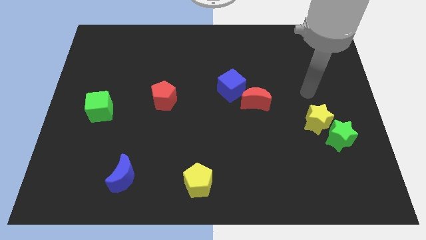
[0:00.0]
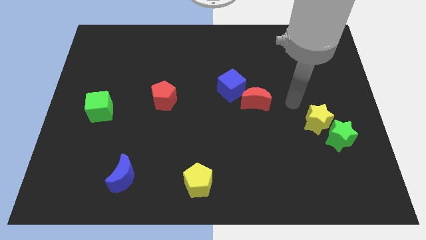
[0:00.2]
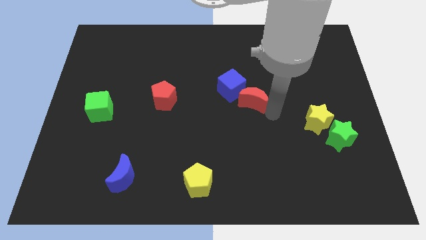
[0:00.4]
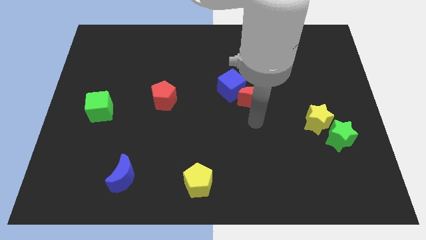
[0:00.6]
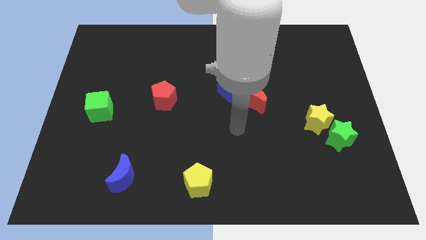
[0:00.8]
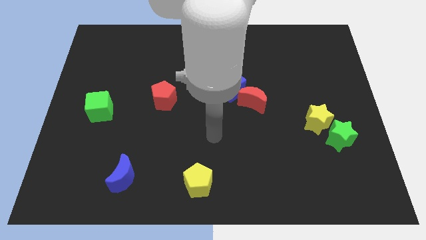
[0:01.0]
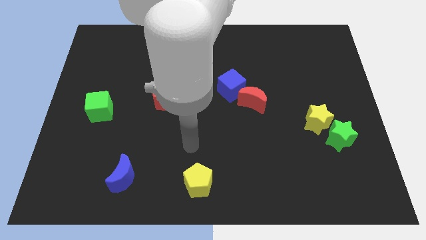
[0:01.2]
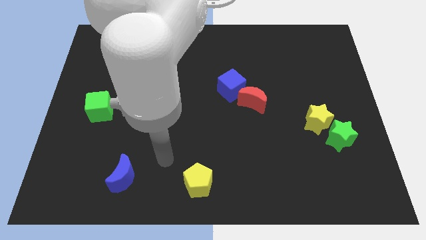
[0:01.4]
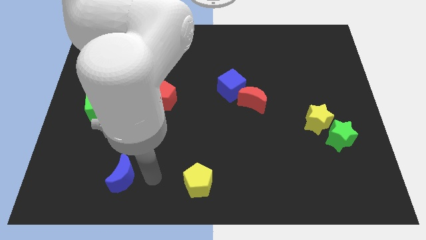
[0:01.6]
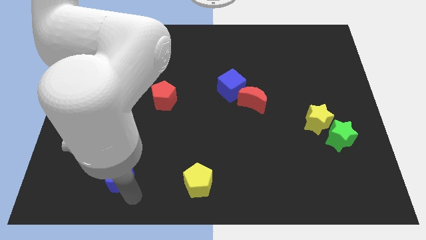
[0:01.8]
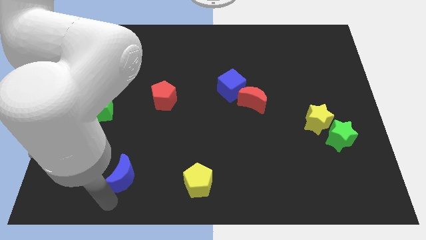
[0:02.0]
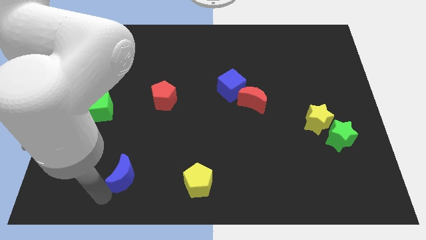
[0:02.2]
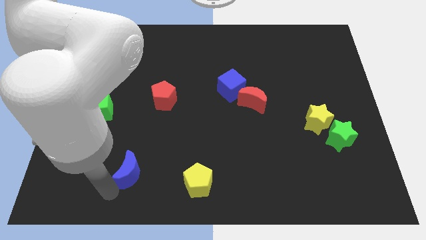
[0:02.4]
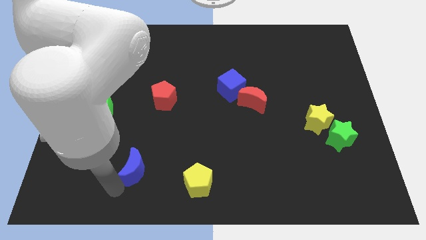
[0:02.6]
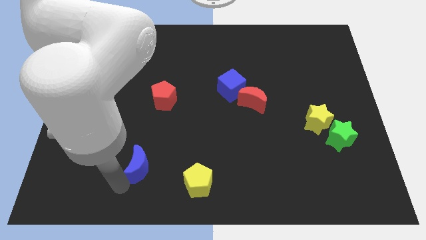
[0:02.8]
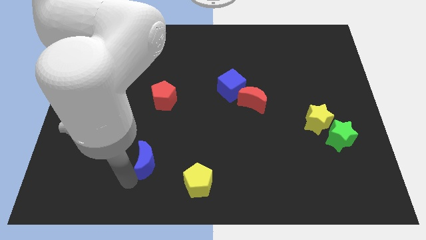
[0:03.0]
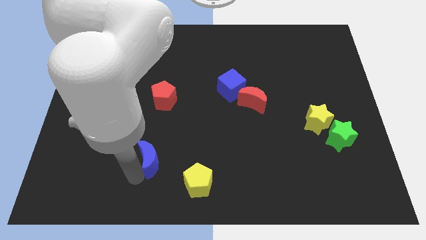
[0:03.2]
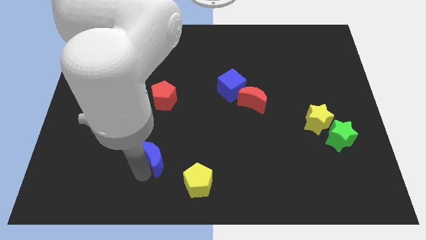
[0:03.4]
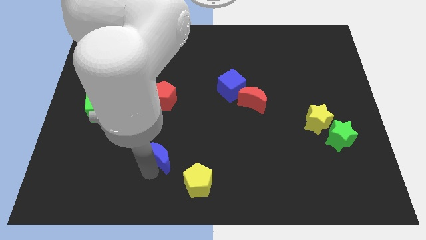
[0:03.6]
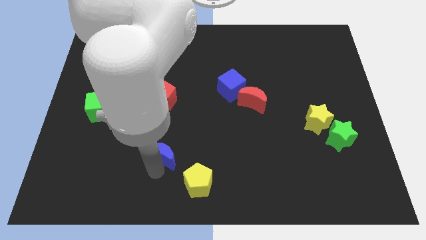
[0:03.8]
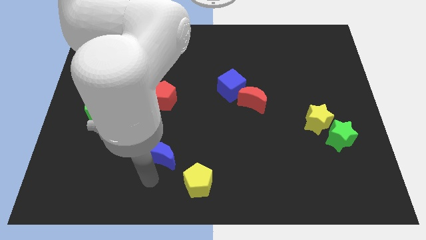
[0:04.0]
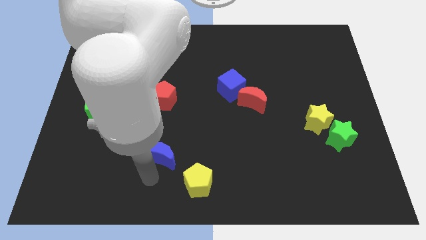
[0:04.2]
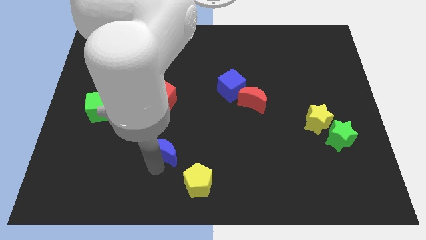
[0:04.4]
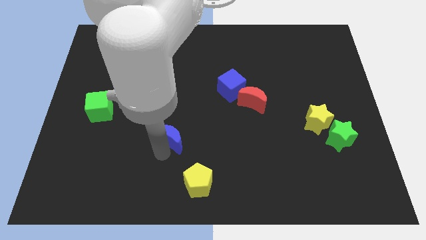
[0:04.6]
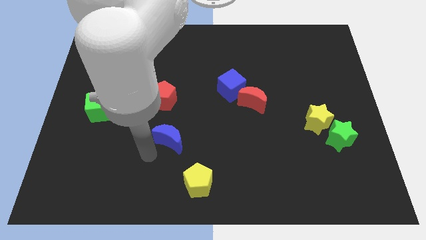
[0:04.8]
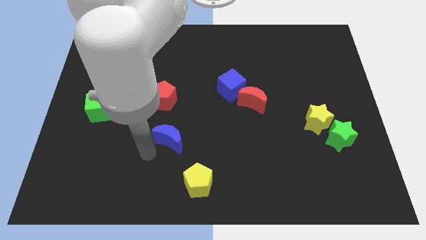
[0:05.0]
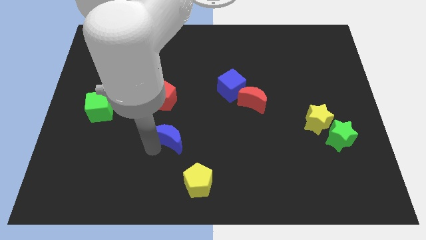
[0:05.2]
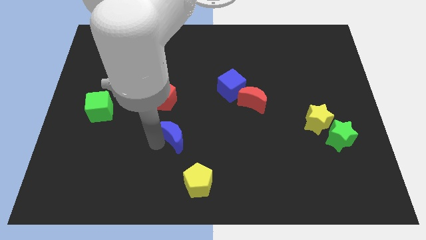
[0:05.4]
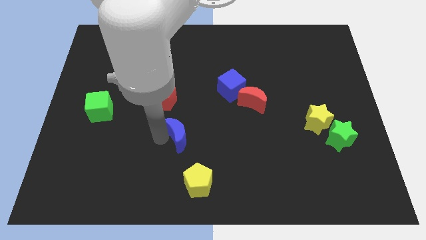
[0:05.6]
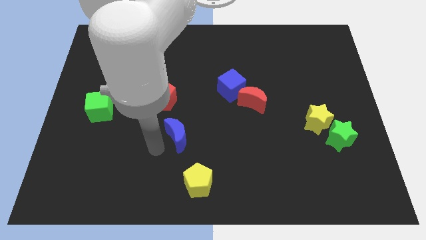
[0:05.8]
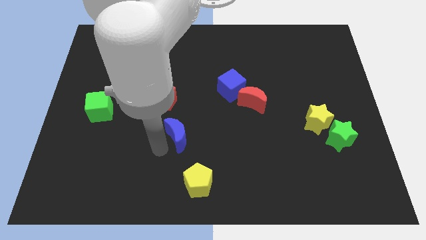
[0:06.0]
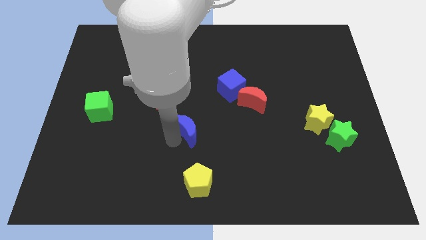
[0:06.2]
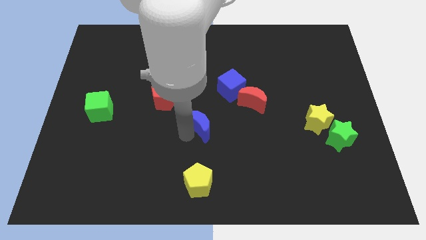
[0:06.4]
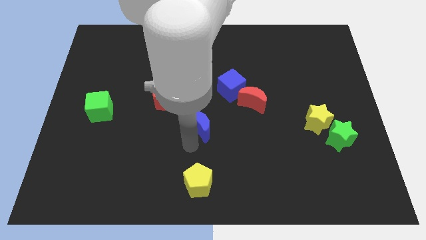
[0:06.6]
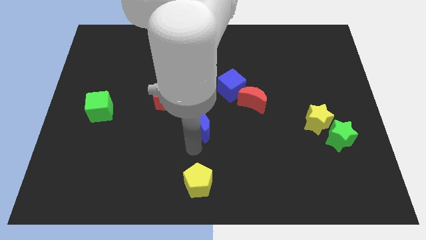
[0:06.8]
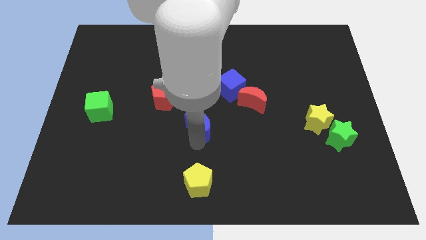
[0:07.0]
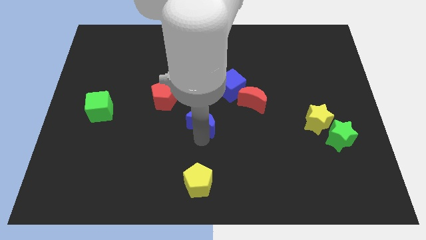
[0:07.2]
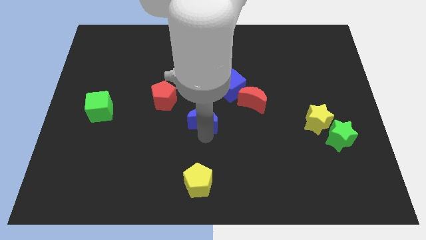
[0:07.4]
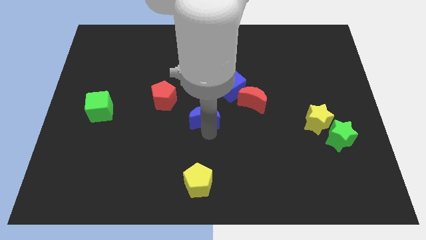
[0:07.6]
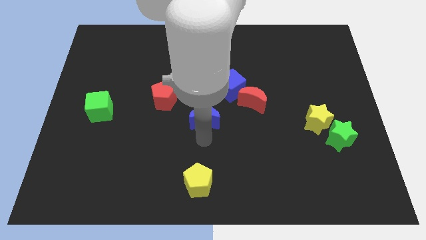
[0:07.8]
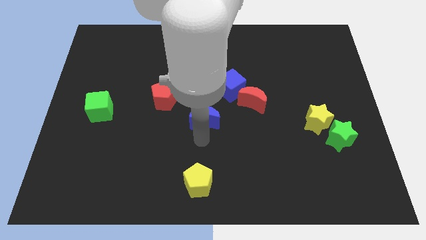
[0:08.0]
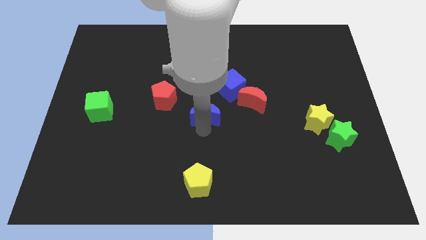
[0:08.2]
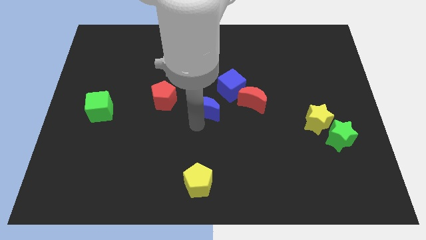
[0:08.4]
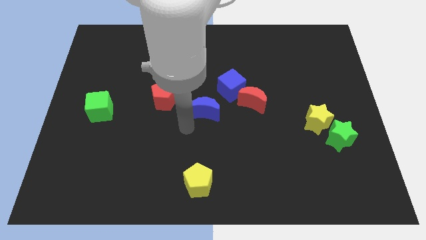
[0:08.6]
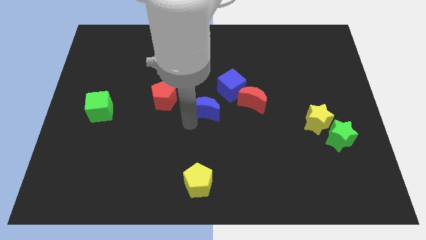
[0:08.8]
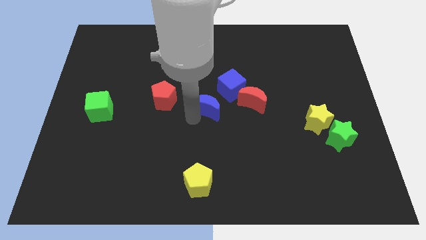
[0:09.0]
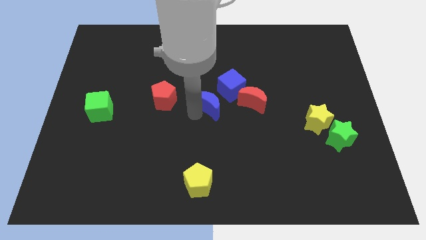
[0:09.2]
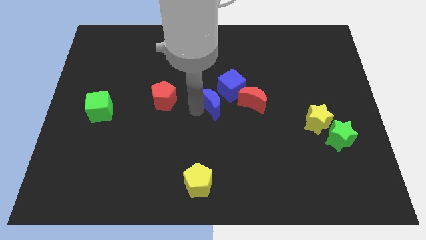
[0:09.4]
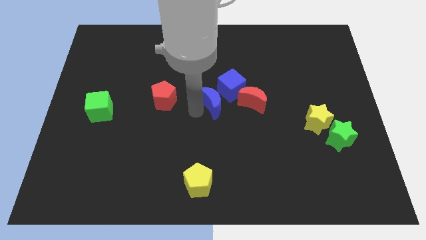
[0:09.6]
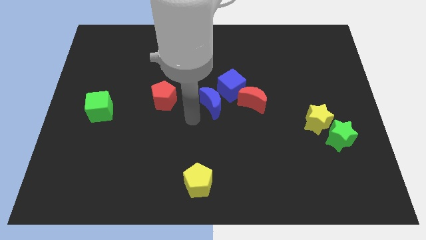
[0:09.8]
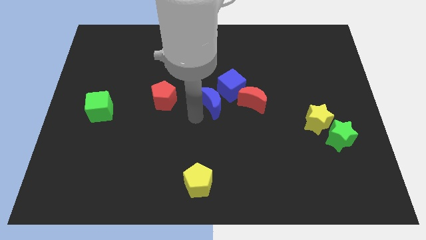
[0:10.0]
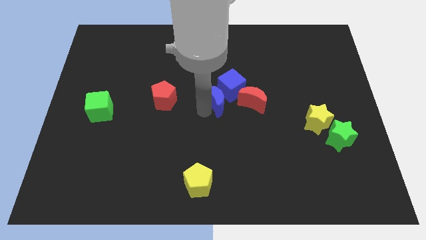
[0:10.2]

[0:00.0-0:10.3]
put the blue moon close to the blue cube

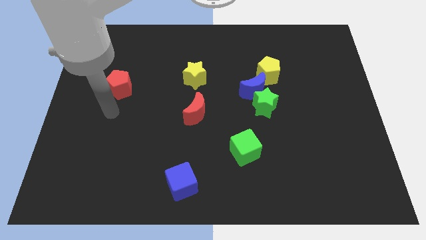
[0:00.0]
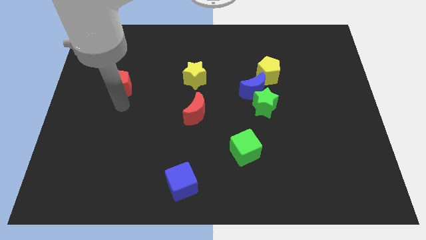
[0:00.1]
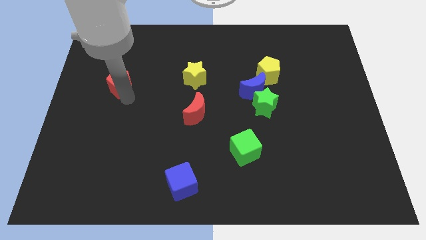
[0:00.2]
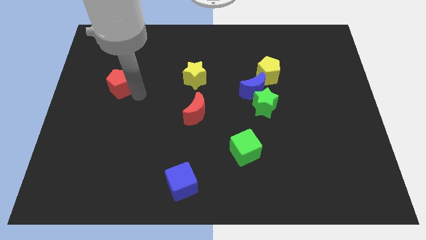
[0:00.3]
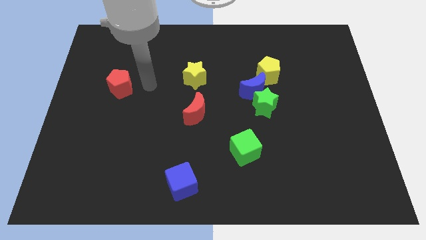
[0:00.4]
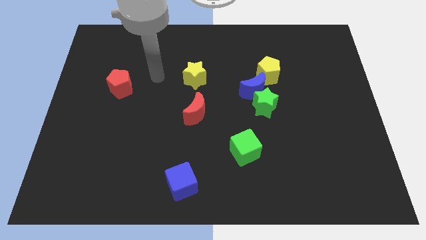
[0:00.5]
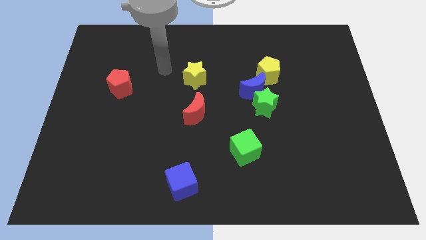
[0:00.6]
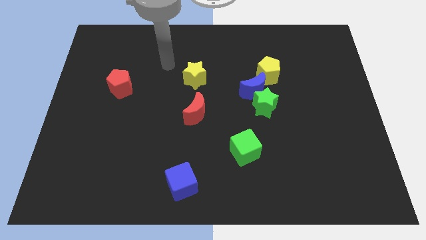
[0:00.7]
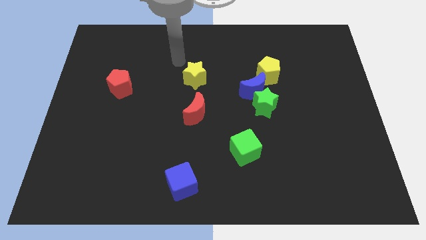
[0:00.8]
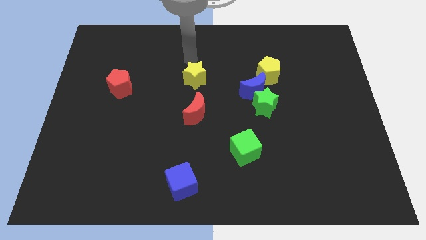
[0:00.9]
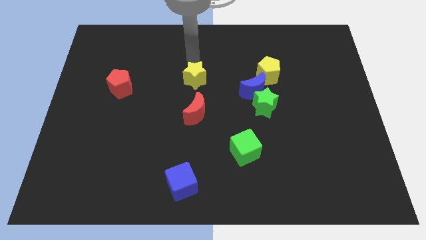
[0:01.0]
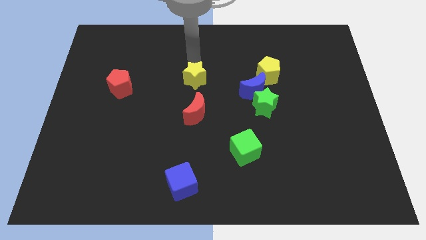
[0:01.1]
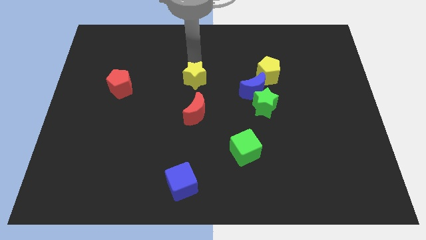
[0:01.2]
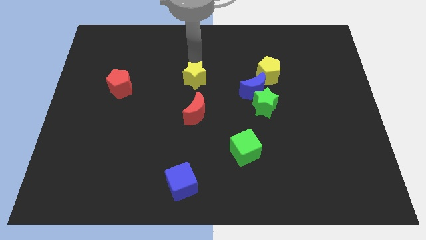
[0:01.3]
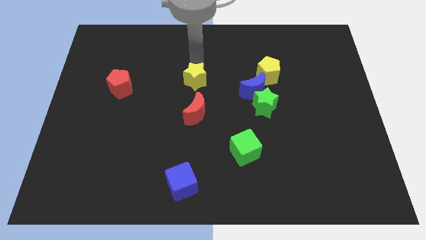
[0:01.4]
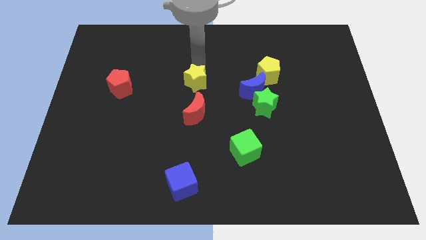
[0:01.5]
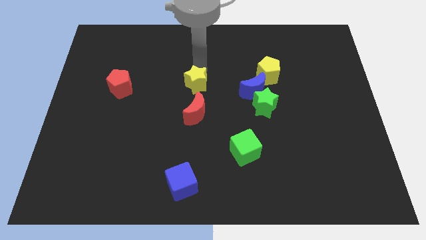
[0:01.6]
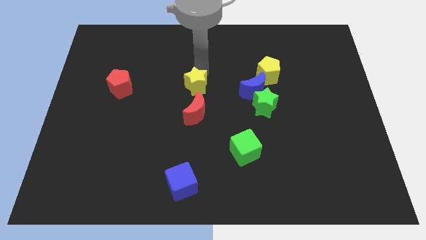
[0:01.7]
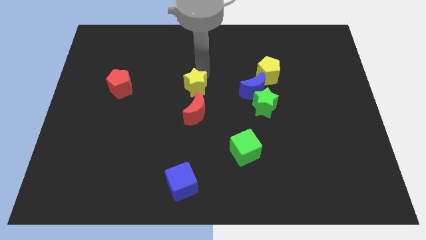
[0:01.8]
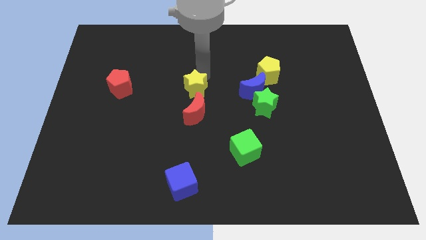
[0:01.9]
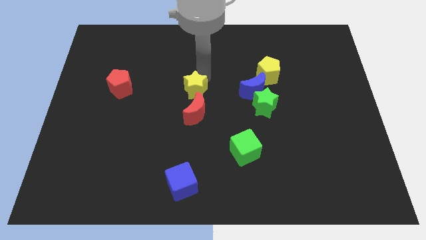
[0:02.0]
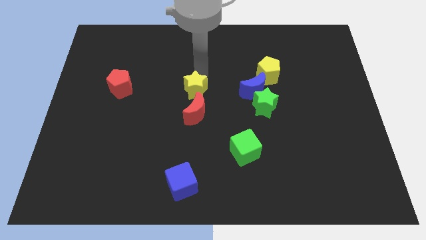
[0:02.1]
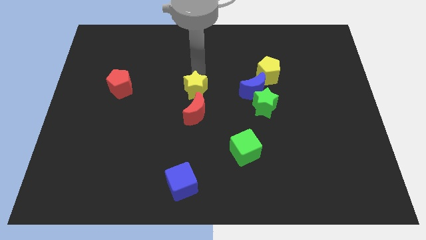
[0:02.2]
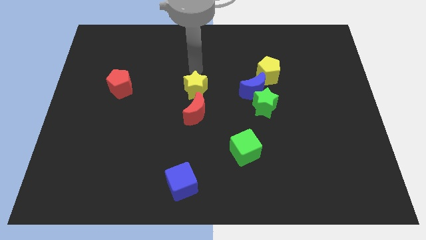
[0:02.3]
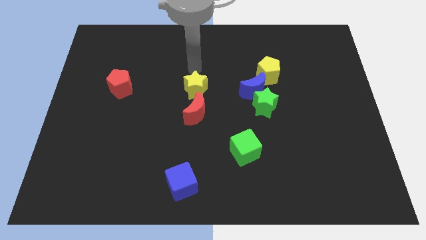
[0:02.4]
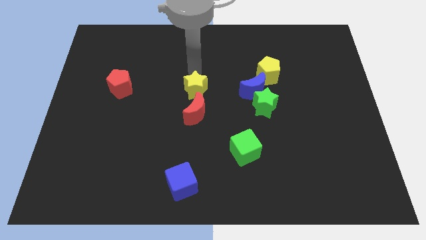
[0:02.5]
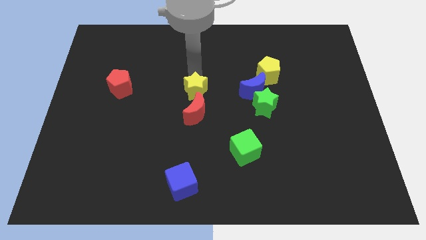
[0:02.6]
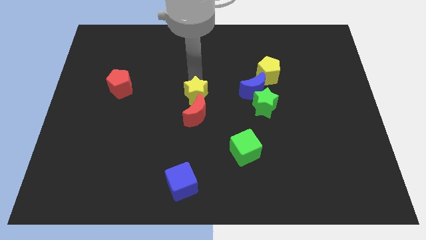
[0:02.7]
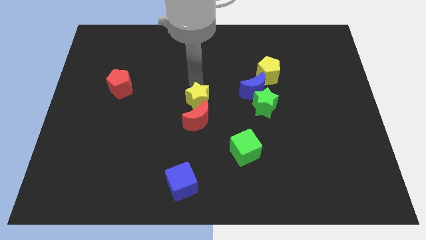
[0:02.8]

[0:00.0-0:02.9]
put the yellow star close to the red moon
